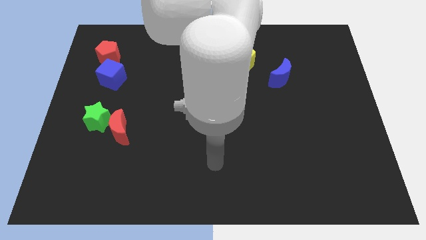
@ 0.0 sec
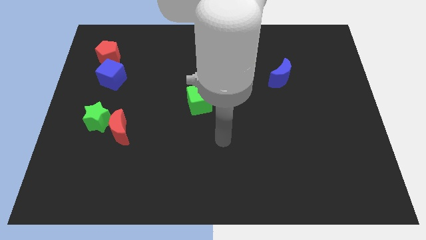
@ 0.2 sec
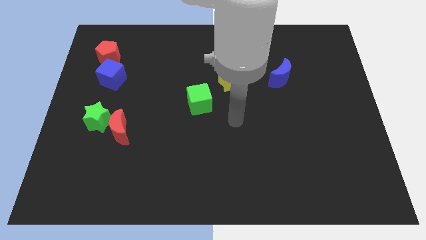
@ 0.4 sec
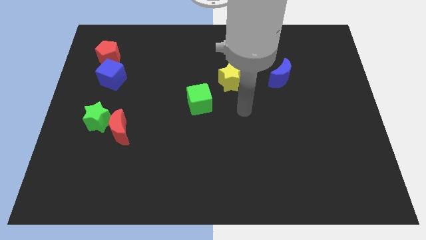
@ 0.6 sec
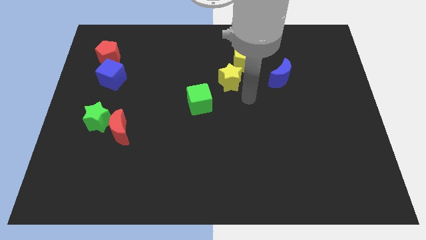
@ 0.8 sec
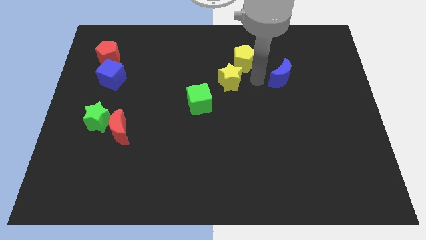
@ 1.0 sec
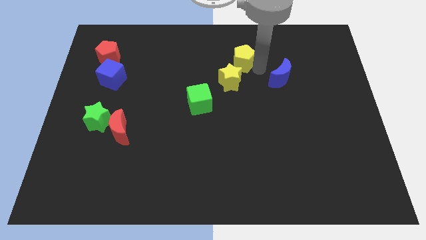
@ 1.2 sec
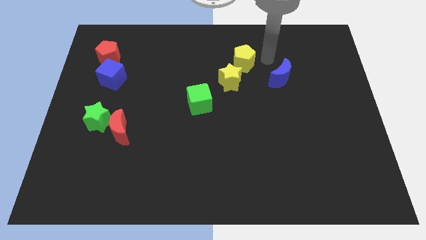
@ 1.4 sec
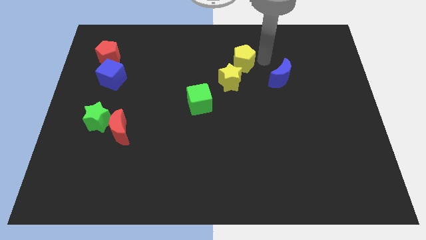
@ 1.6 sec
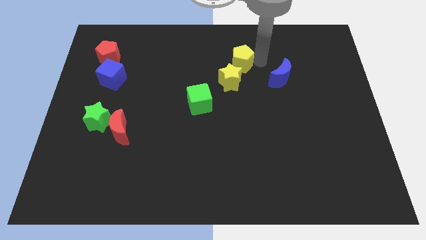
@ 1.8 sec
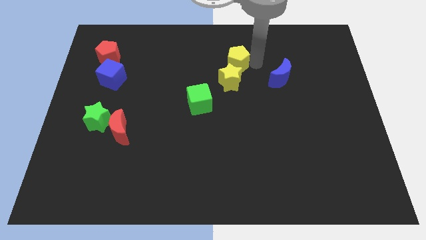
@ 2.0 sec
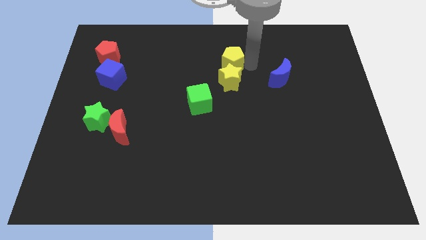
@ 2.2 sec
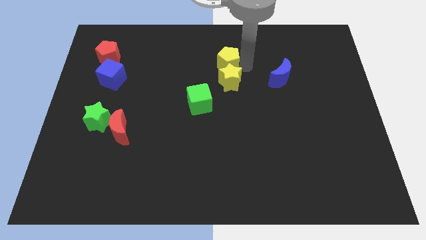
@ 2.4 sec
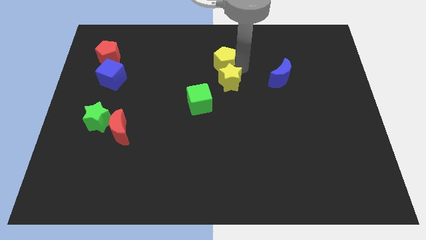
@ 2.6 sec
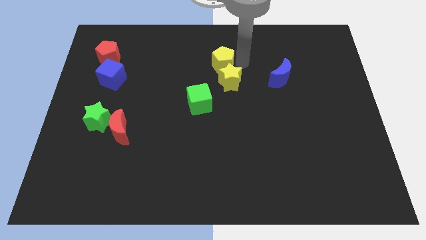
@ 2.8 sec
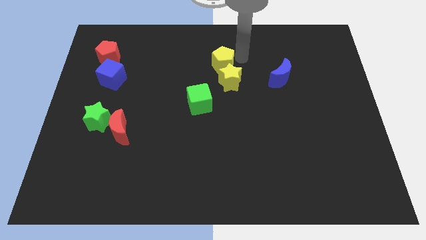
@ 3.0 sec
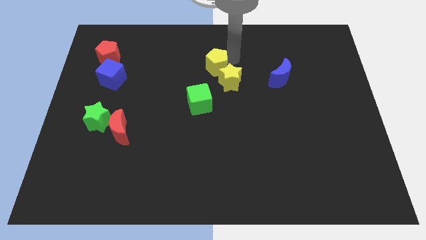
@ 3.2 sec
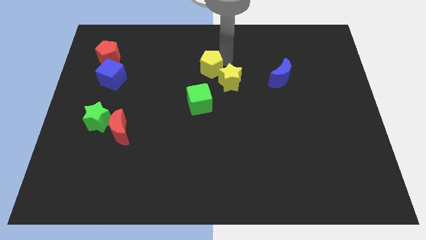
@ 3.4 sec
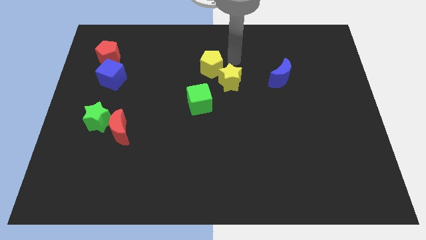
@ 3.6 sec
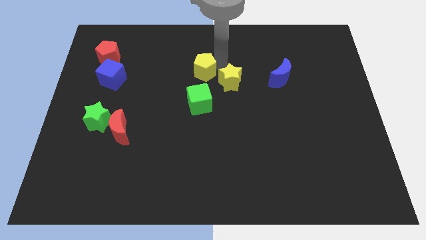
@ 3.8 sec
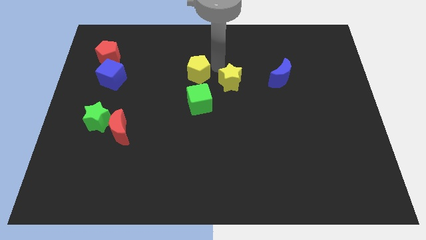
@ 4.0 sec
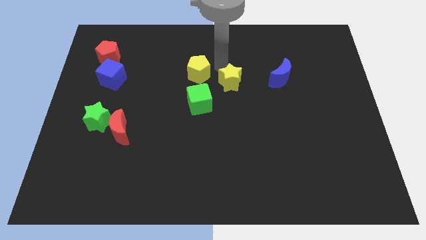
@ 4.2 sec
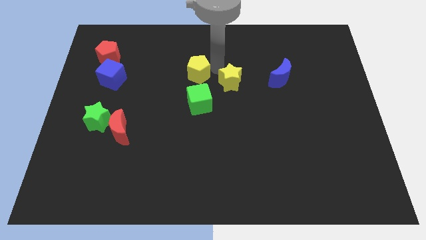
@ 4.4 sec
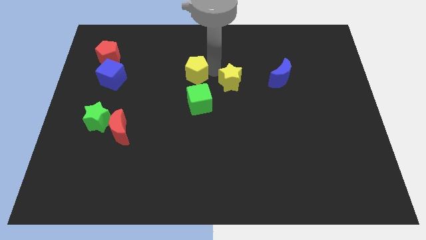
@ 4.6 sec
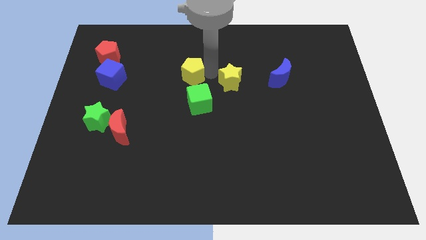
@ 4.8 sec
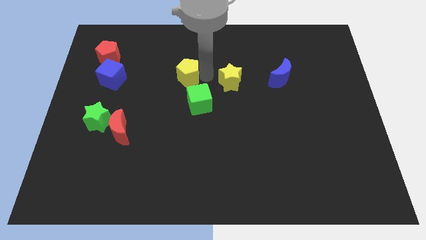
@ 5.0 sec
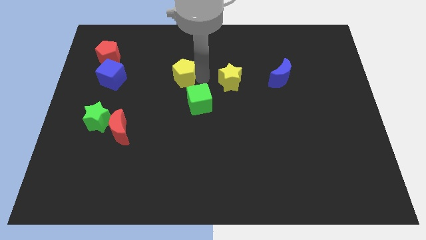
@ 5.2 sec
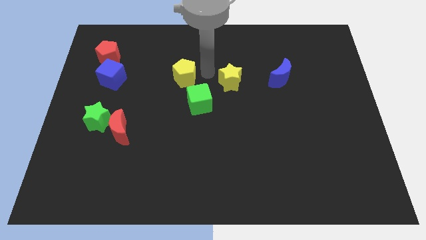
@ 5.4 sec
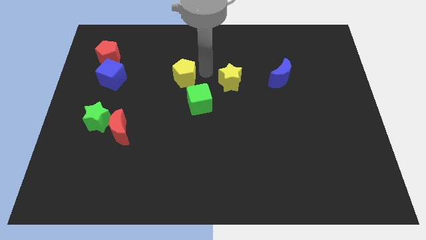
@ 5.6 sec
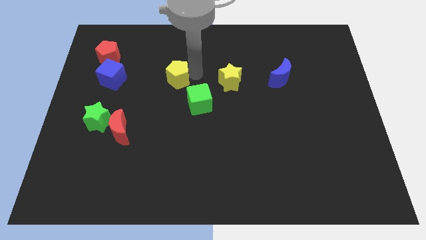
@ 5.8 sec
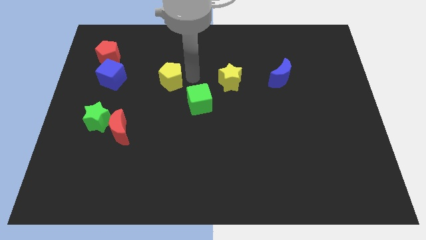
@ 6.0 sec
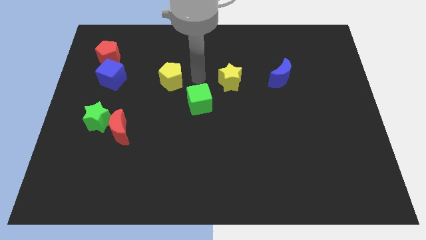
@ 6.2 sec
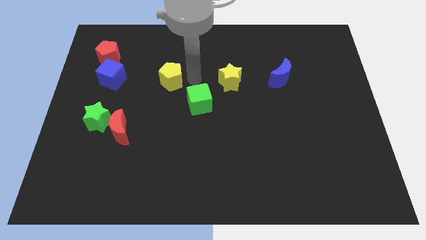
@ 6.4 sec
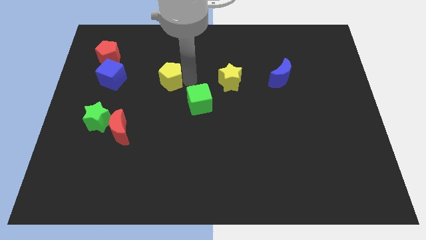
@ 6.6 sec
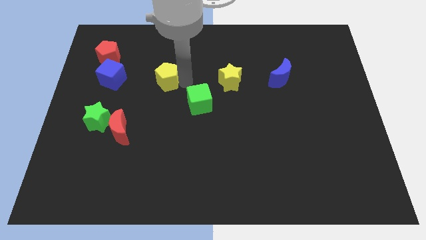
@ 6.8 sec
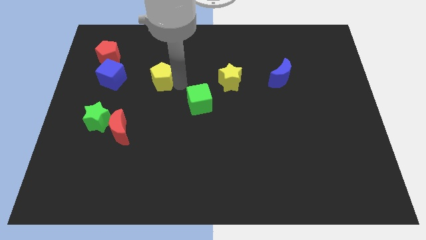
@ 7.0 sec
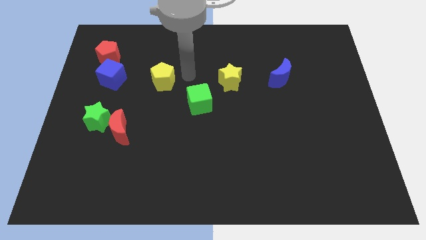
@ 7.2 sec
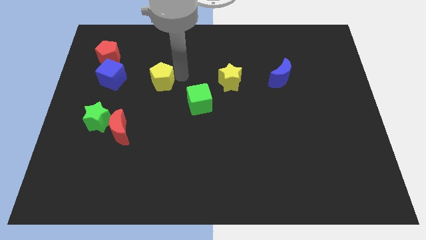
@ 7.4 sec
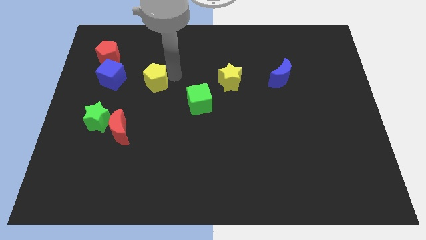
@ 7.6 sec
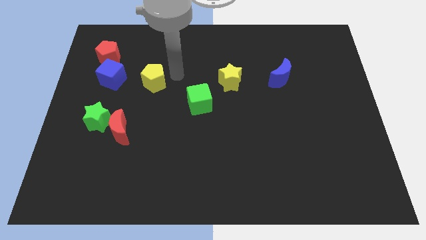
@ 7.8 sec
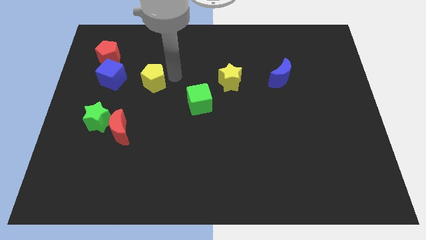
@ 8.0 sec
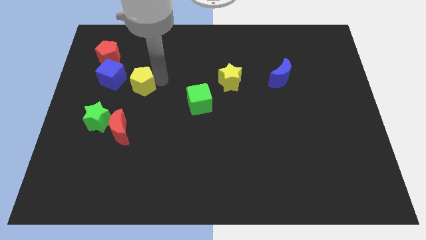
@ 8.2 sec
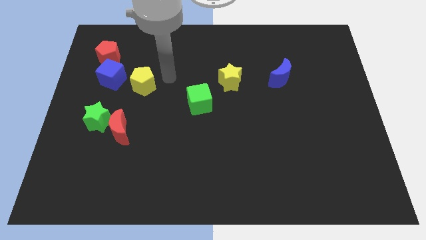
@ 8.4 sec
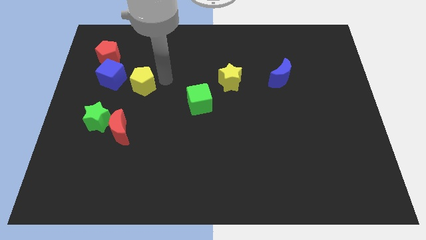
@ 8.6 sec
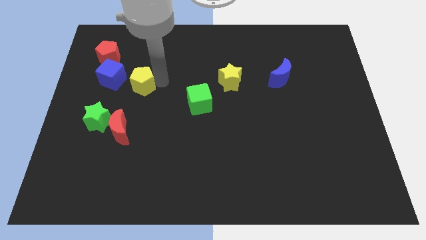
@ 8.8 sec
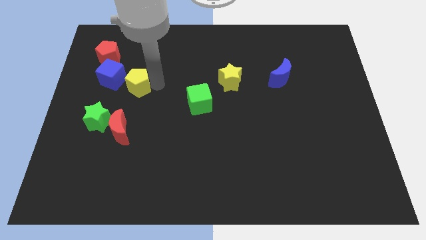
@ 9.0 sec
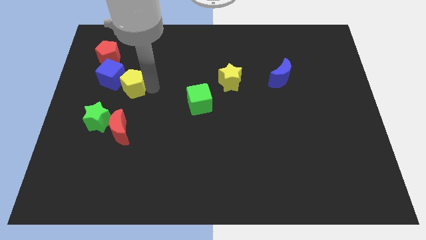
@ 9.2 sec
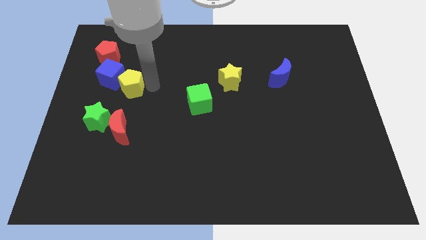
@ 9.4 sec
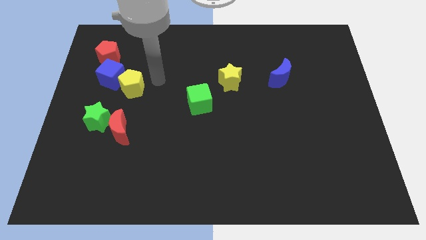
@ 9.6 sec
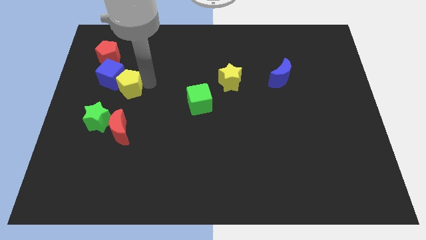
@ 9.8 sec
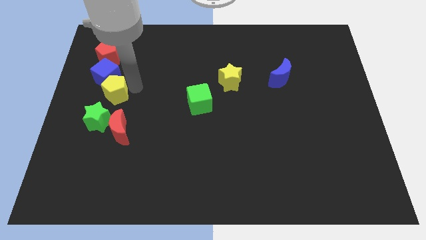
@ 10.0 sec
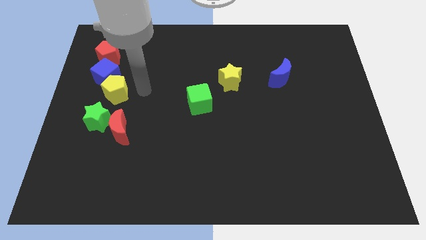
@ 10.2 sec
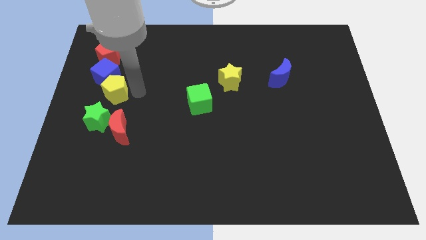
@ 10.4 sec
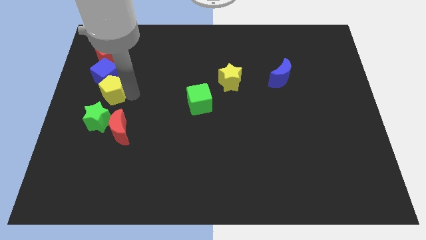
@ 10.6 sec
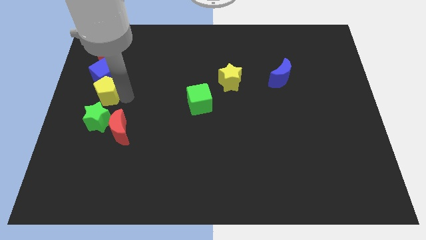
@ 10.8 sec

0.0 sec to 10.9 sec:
put the yellow pentagon to the center left
